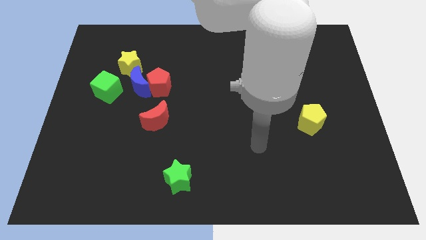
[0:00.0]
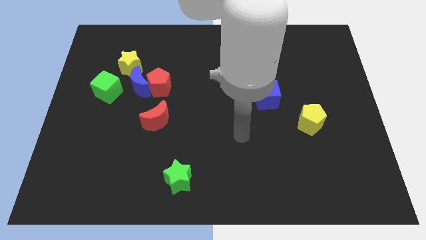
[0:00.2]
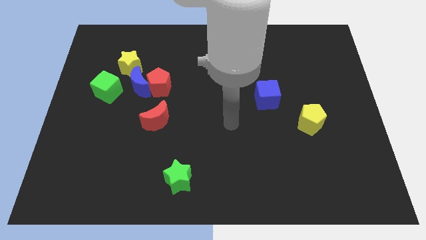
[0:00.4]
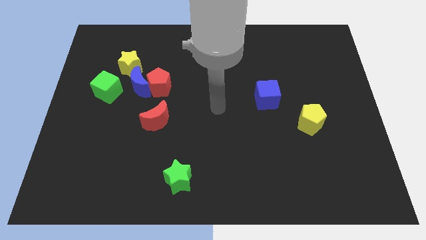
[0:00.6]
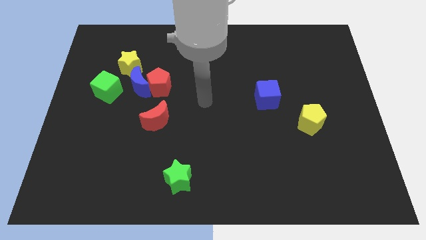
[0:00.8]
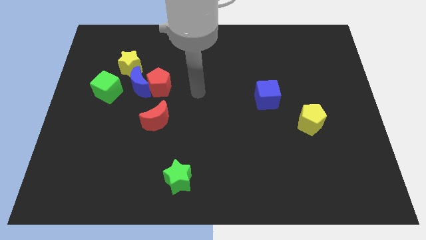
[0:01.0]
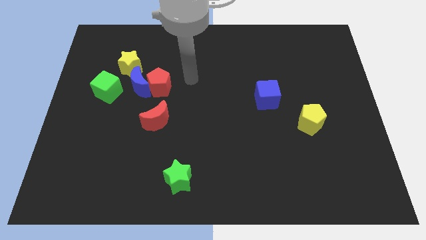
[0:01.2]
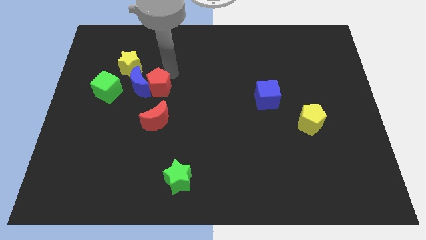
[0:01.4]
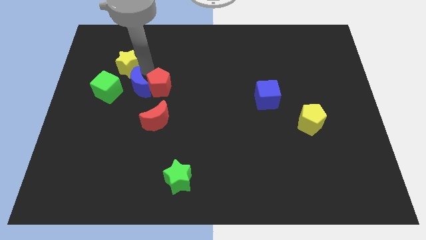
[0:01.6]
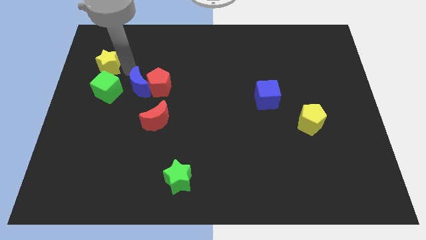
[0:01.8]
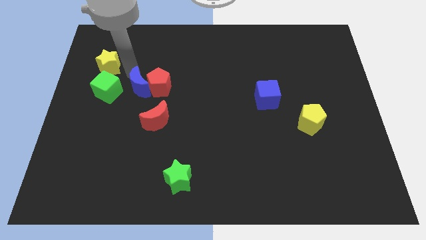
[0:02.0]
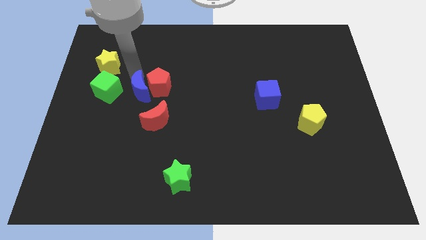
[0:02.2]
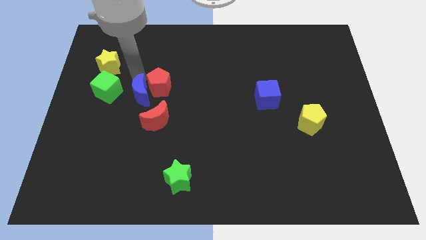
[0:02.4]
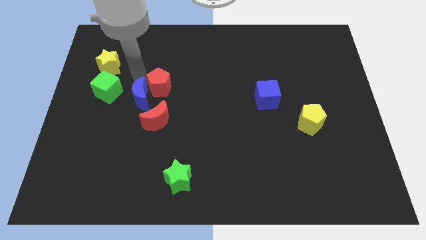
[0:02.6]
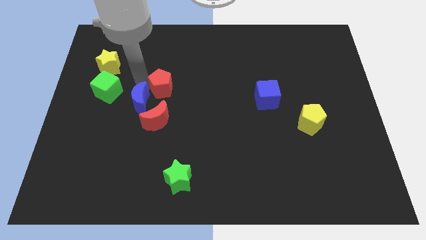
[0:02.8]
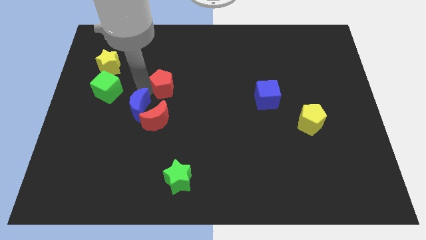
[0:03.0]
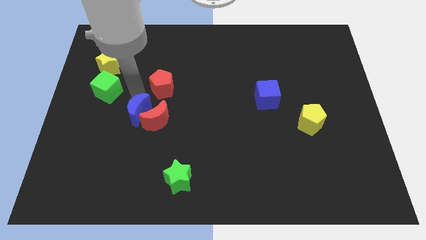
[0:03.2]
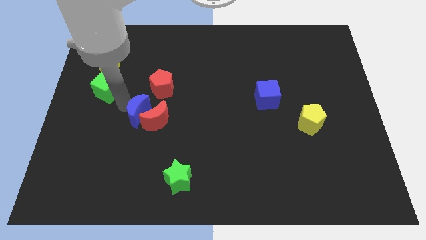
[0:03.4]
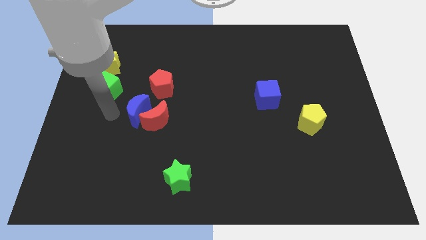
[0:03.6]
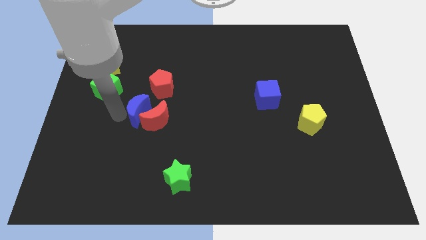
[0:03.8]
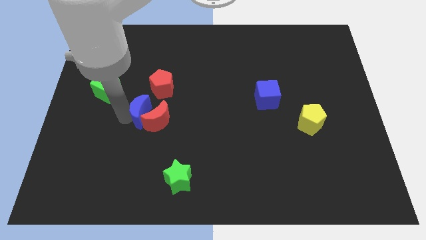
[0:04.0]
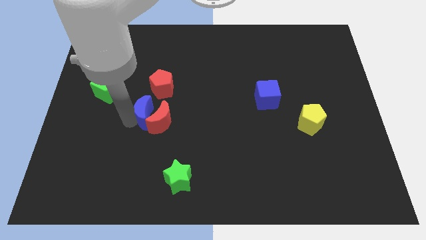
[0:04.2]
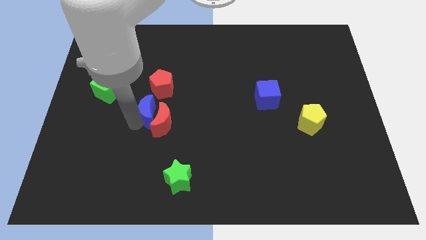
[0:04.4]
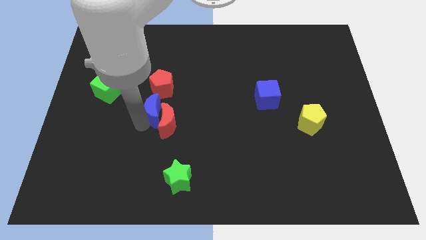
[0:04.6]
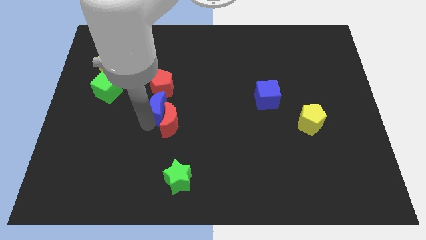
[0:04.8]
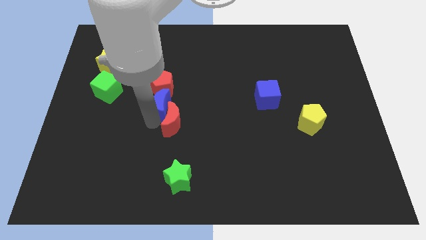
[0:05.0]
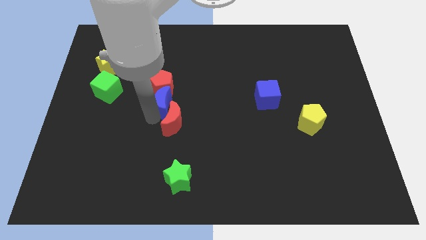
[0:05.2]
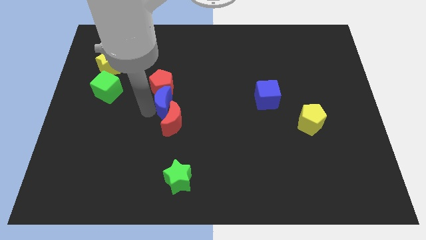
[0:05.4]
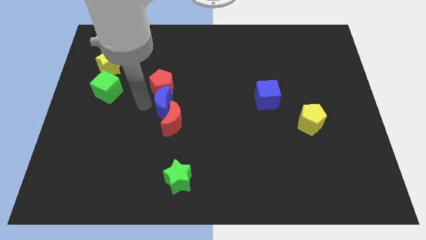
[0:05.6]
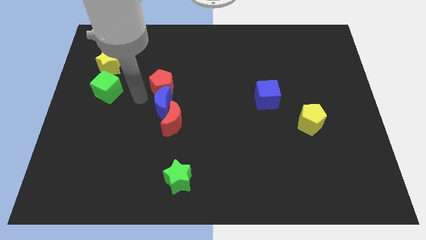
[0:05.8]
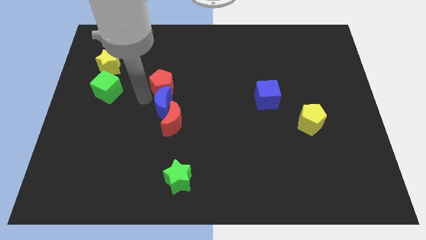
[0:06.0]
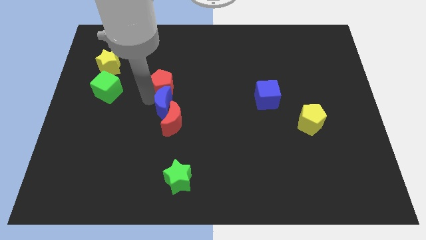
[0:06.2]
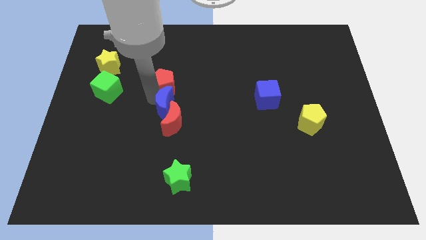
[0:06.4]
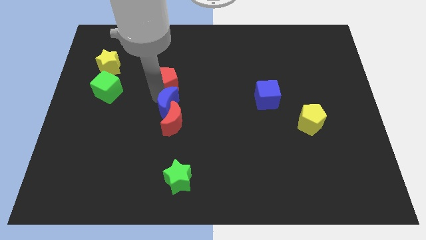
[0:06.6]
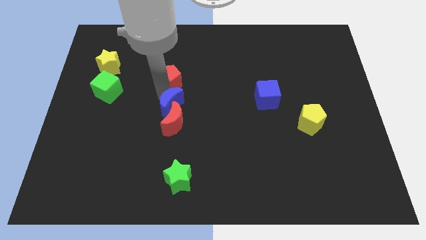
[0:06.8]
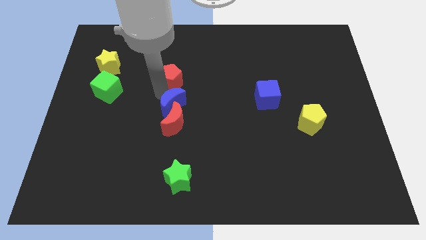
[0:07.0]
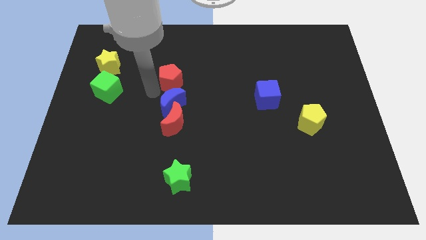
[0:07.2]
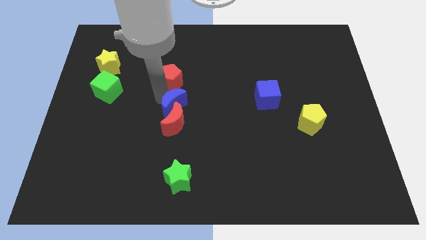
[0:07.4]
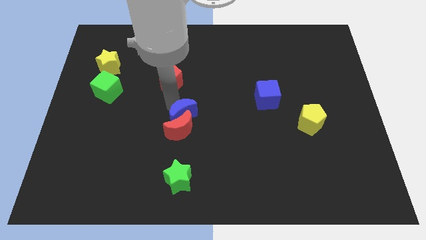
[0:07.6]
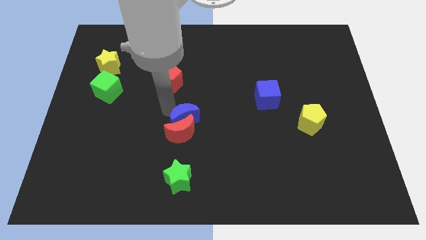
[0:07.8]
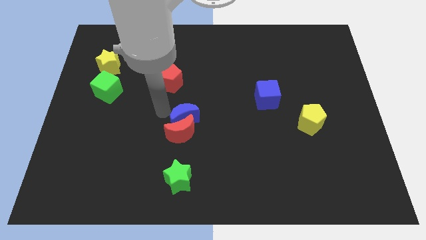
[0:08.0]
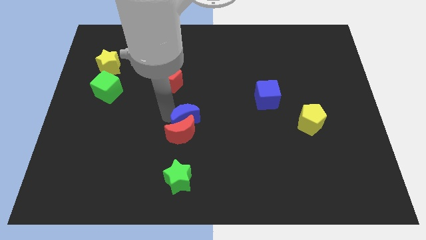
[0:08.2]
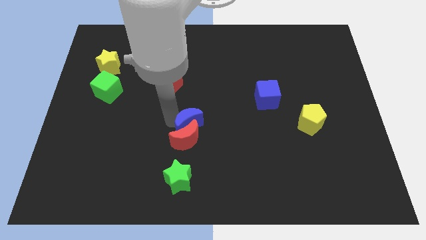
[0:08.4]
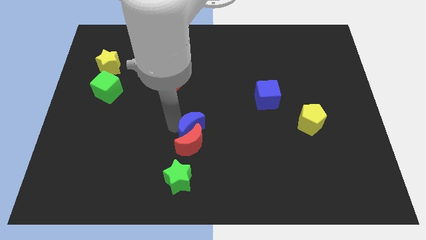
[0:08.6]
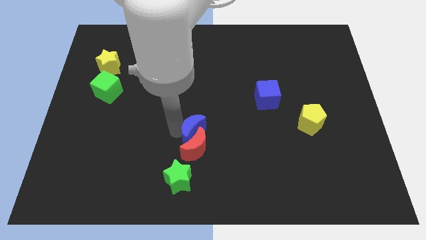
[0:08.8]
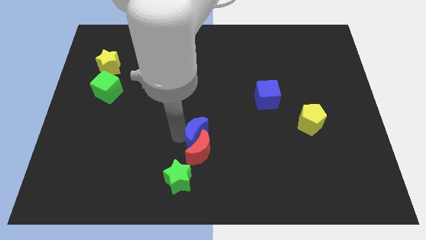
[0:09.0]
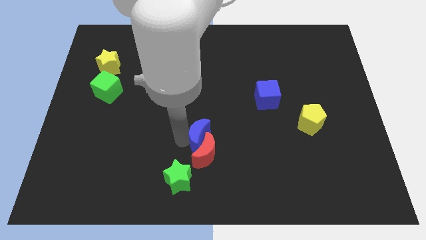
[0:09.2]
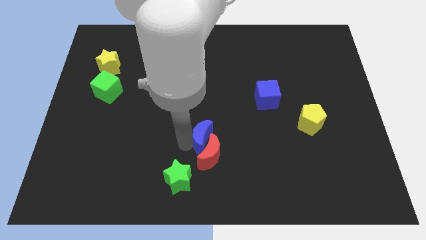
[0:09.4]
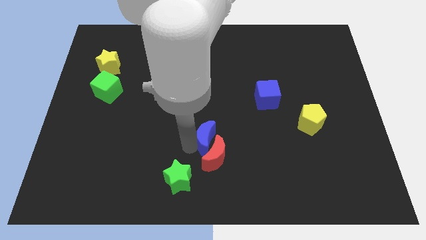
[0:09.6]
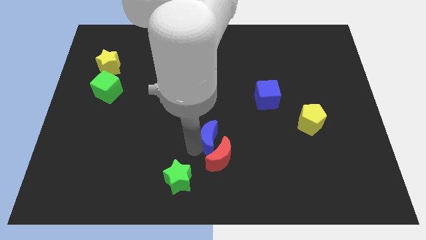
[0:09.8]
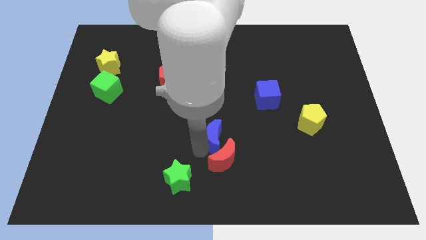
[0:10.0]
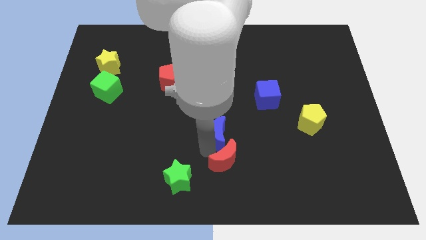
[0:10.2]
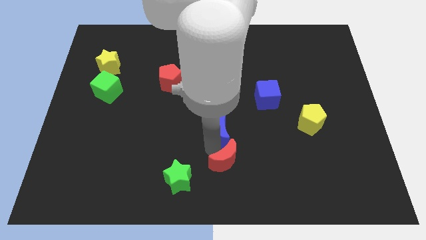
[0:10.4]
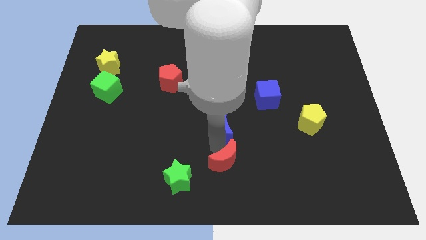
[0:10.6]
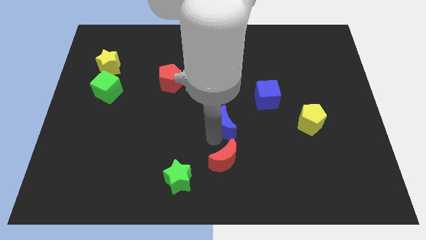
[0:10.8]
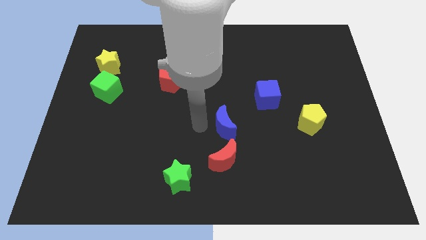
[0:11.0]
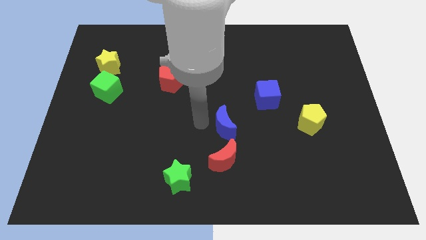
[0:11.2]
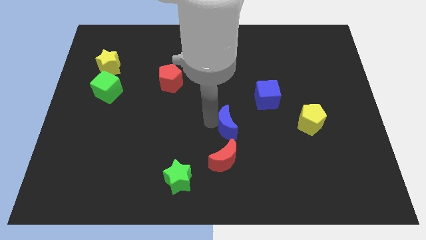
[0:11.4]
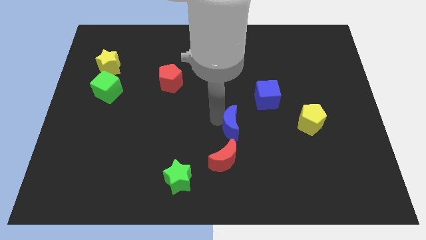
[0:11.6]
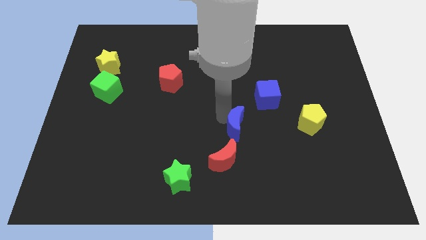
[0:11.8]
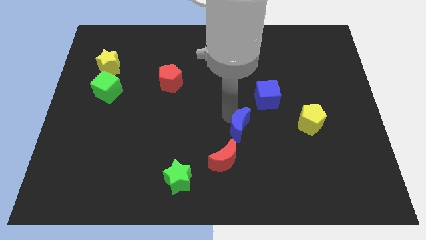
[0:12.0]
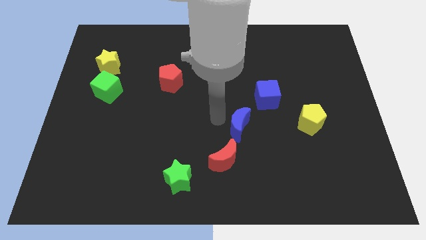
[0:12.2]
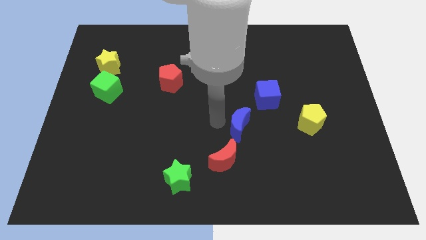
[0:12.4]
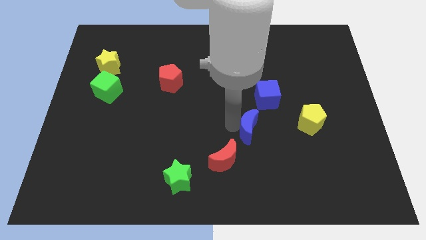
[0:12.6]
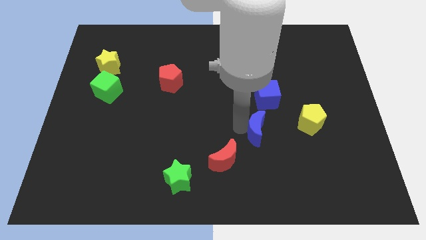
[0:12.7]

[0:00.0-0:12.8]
put the blue moon below the blue cube
